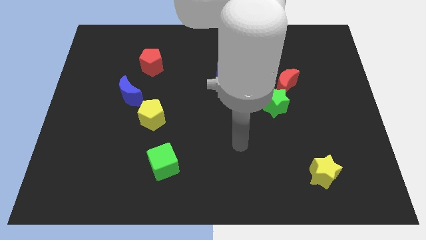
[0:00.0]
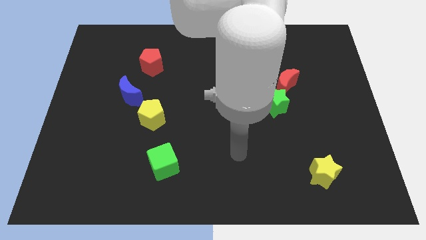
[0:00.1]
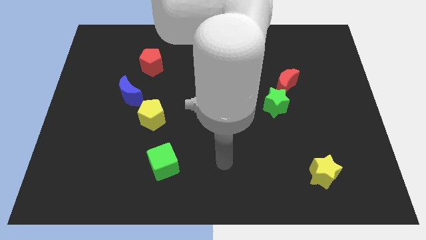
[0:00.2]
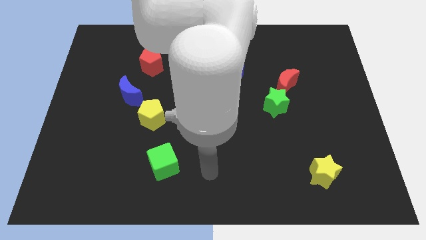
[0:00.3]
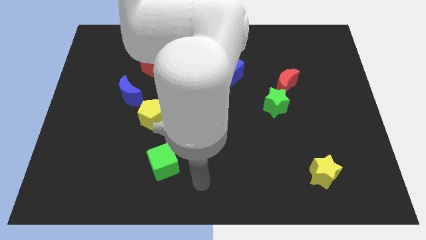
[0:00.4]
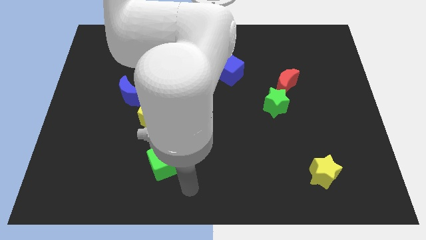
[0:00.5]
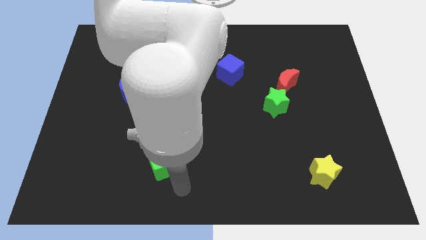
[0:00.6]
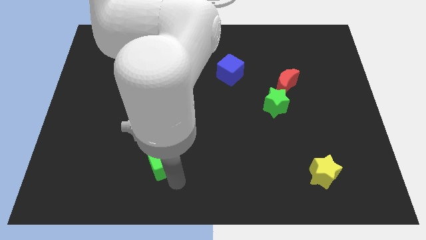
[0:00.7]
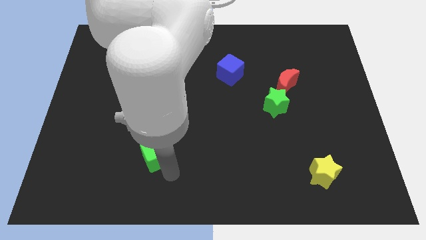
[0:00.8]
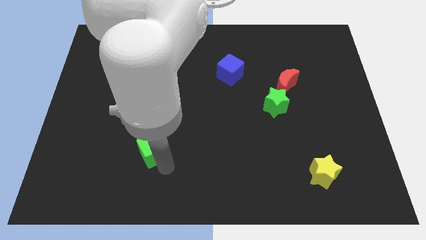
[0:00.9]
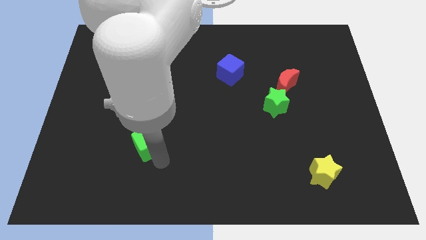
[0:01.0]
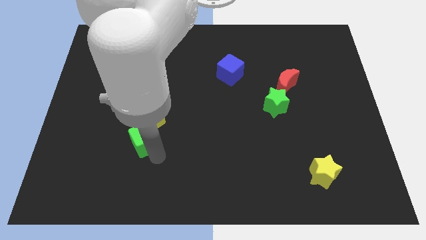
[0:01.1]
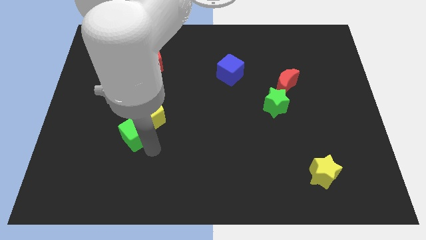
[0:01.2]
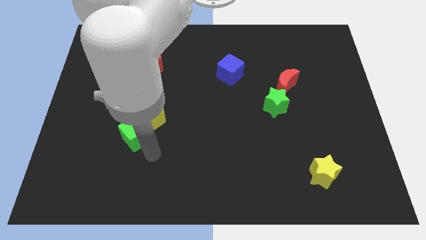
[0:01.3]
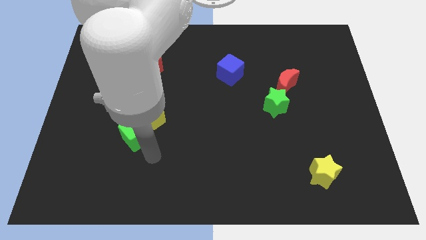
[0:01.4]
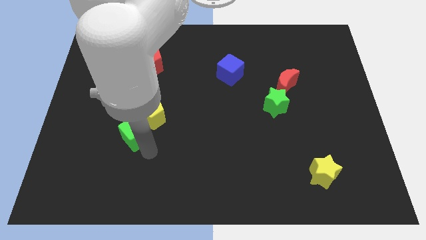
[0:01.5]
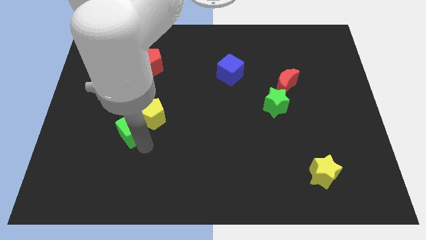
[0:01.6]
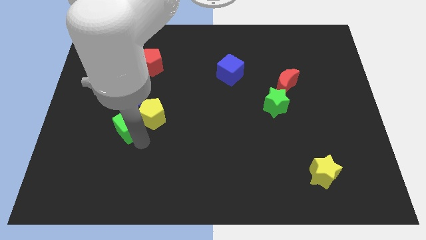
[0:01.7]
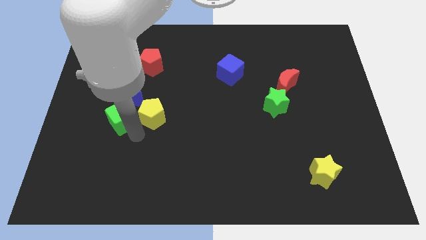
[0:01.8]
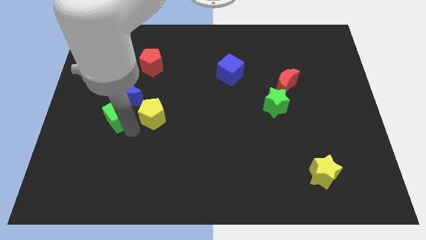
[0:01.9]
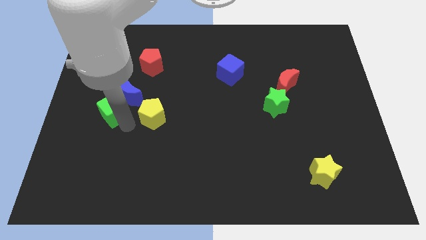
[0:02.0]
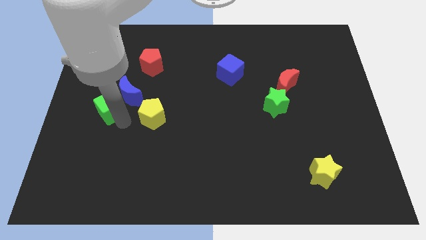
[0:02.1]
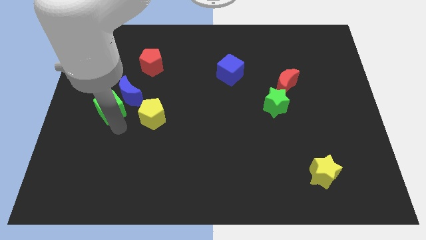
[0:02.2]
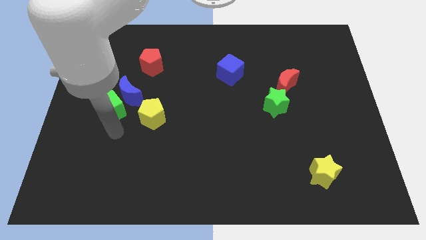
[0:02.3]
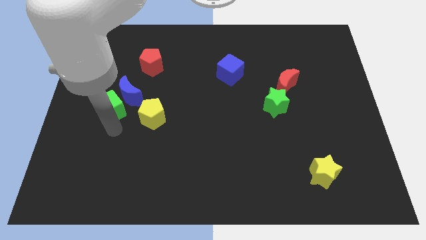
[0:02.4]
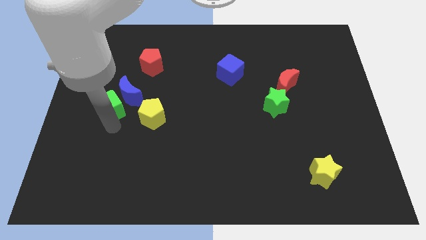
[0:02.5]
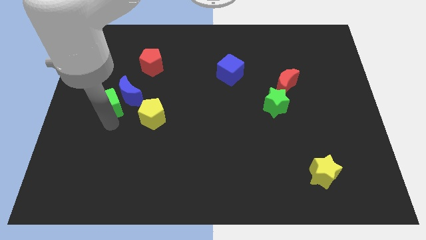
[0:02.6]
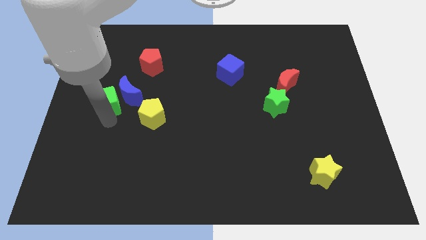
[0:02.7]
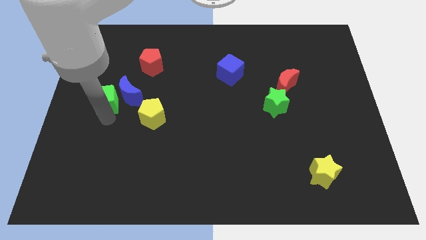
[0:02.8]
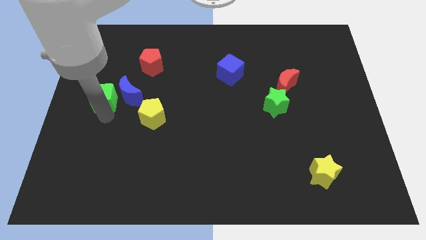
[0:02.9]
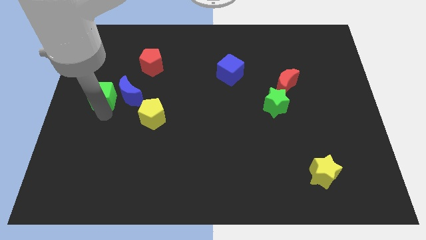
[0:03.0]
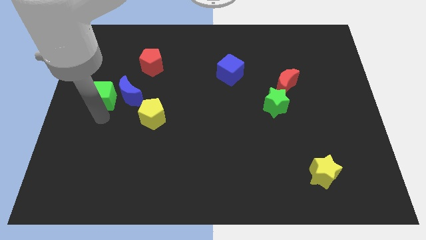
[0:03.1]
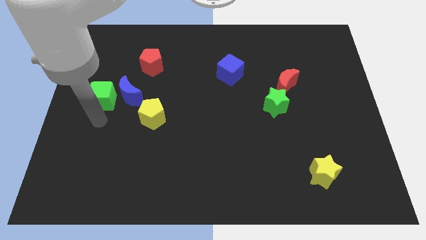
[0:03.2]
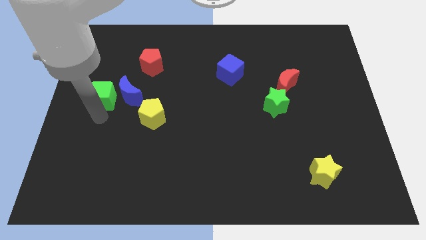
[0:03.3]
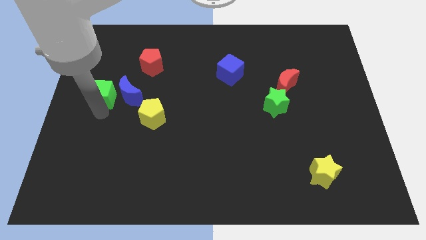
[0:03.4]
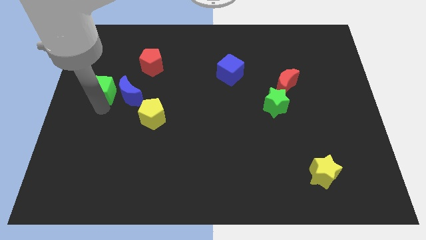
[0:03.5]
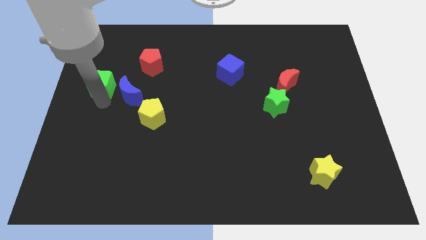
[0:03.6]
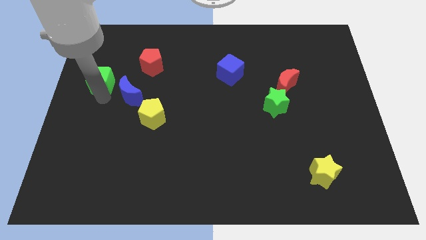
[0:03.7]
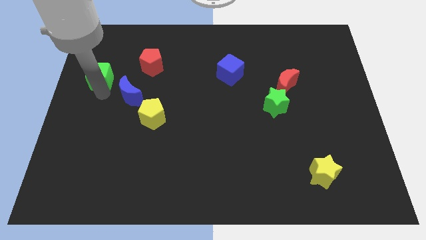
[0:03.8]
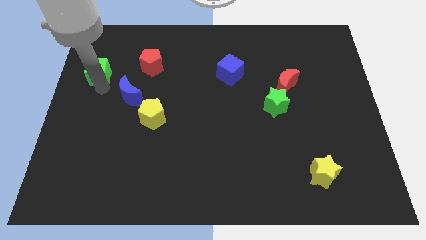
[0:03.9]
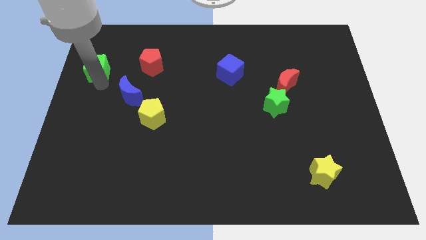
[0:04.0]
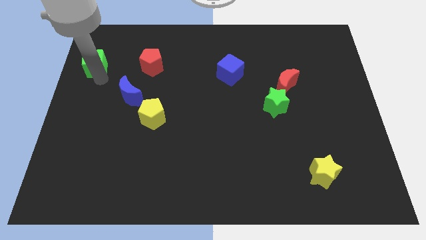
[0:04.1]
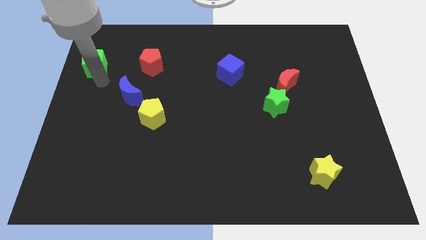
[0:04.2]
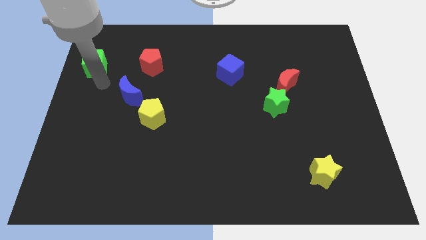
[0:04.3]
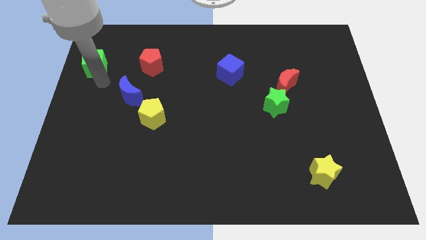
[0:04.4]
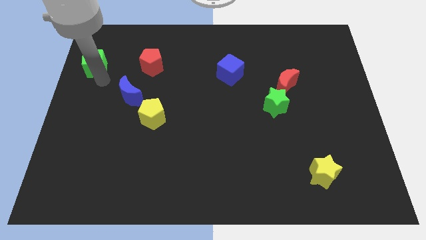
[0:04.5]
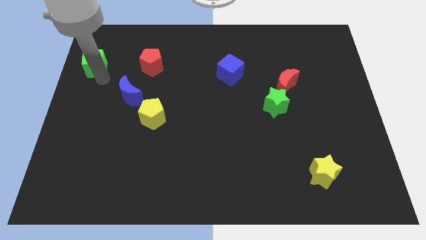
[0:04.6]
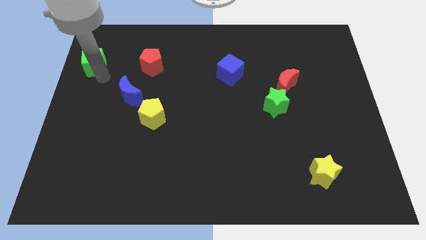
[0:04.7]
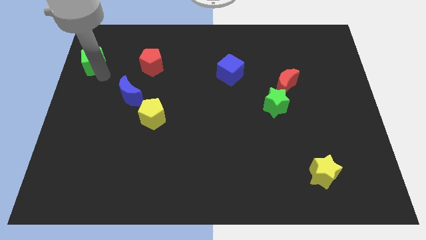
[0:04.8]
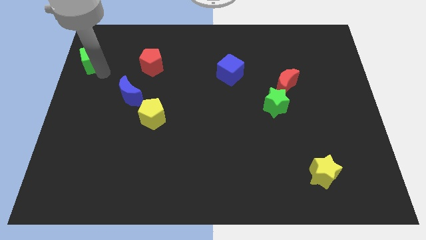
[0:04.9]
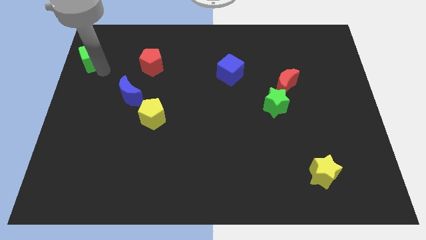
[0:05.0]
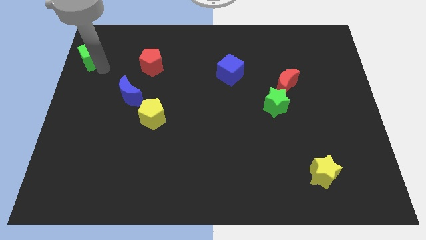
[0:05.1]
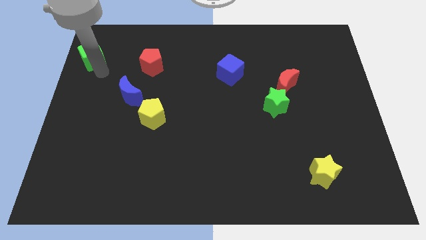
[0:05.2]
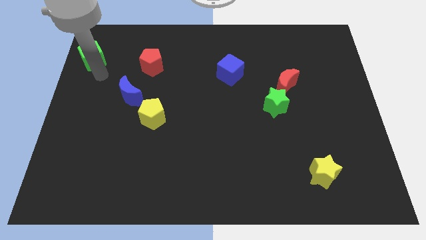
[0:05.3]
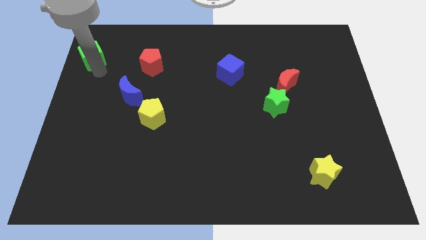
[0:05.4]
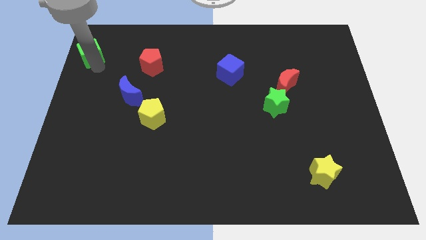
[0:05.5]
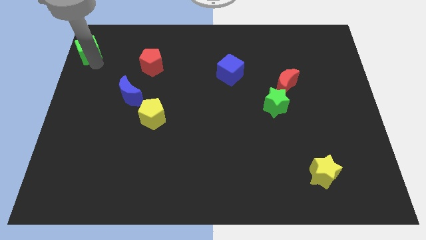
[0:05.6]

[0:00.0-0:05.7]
put the green cube to the top left

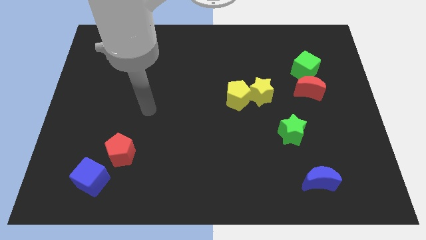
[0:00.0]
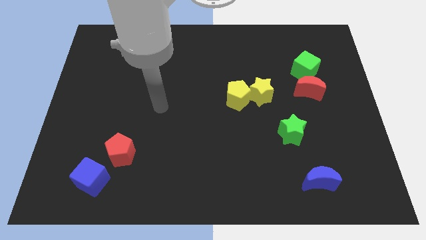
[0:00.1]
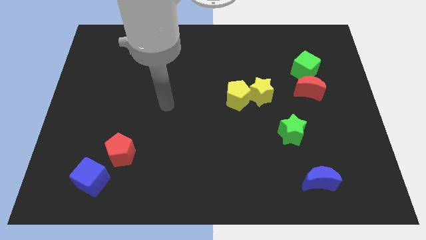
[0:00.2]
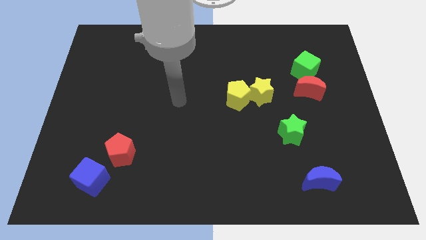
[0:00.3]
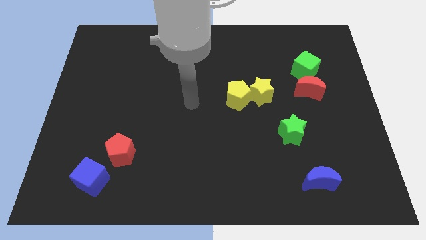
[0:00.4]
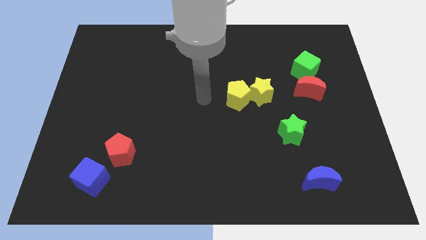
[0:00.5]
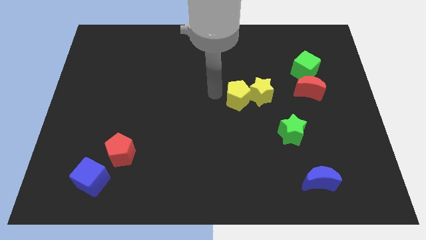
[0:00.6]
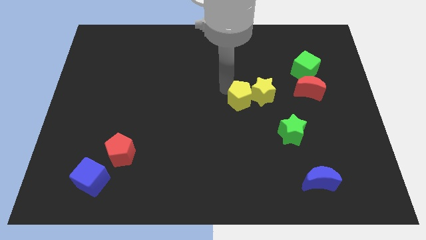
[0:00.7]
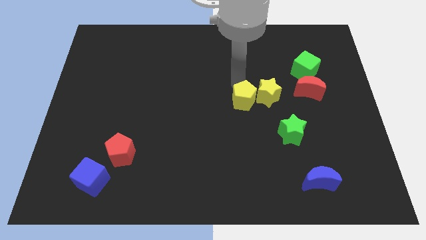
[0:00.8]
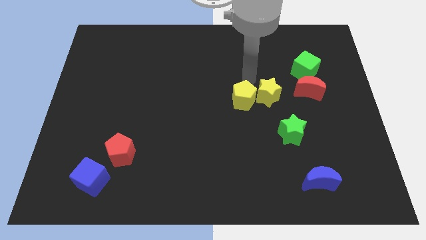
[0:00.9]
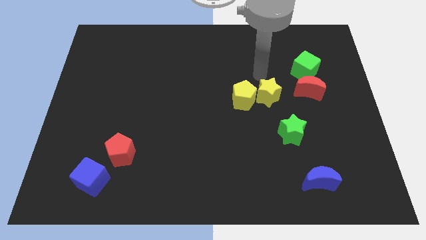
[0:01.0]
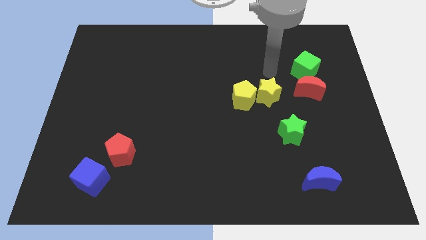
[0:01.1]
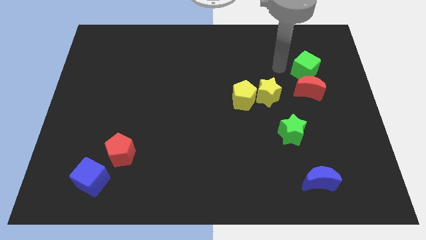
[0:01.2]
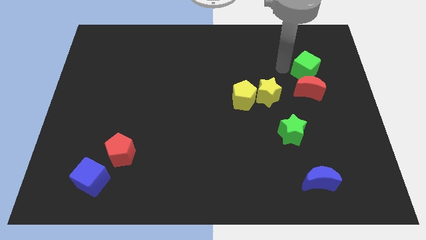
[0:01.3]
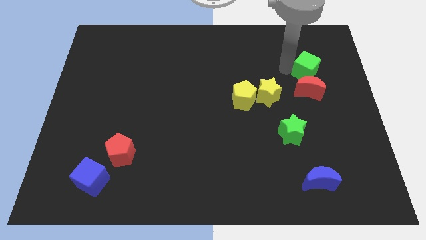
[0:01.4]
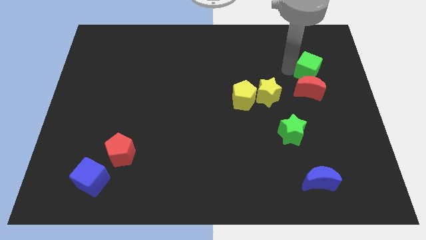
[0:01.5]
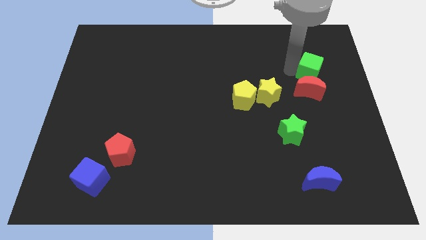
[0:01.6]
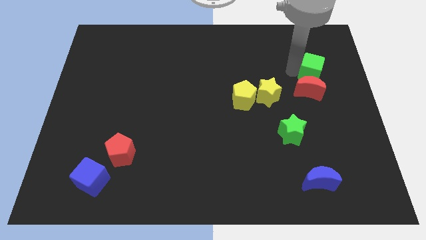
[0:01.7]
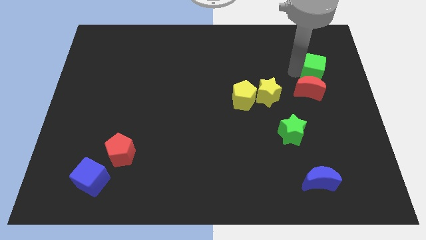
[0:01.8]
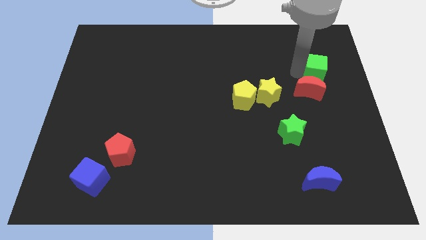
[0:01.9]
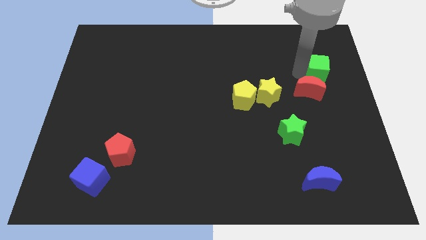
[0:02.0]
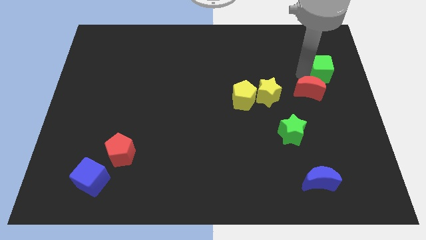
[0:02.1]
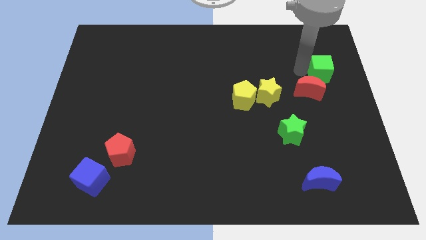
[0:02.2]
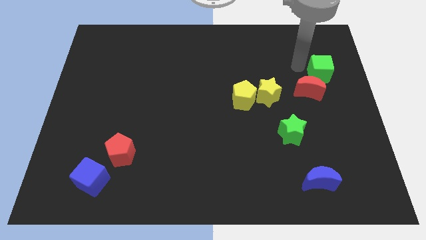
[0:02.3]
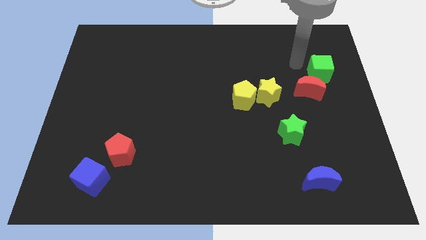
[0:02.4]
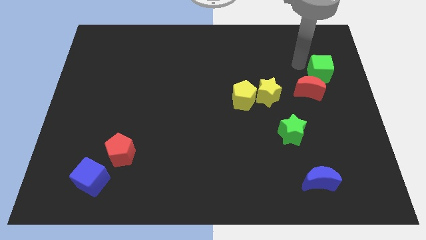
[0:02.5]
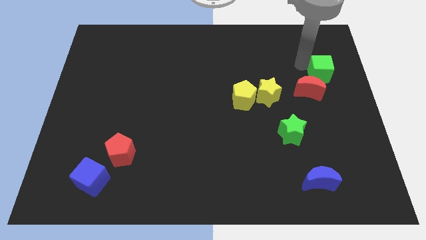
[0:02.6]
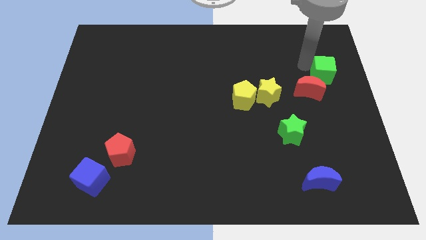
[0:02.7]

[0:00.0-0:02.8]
move the green cube to the right side
